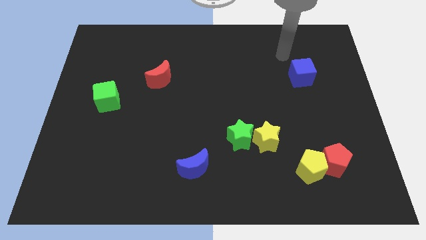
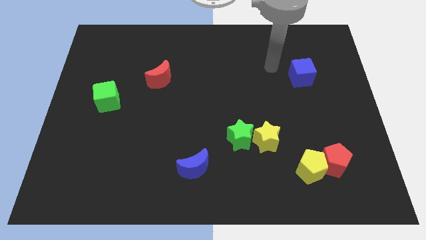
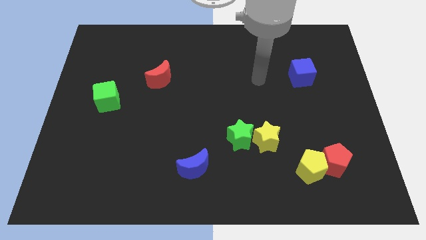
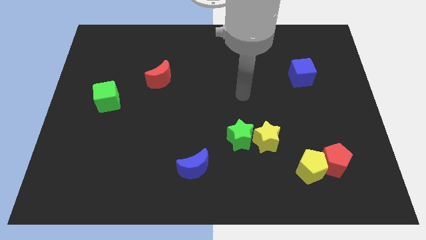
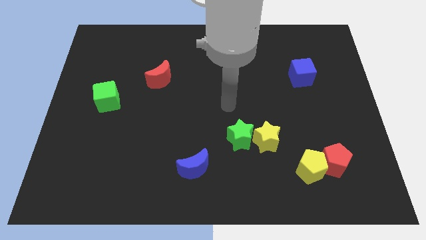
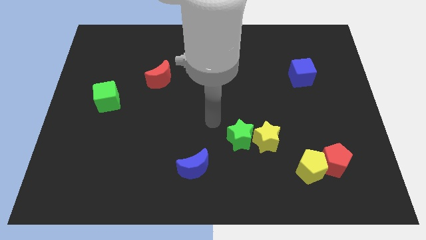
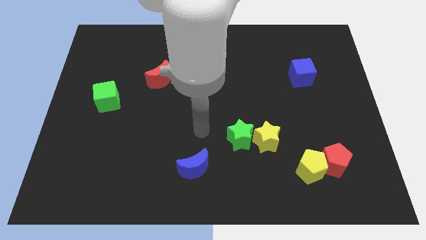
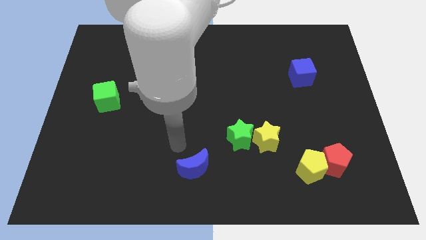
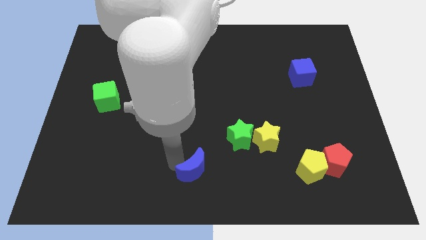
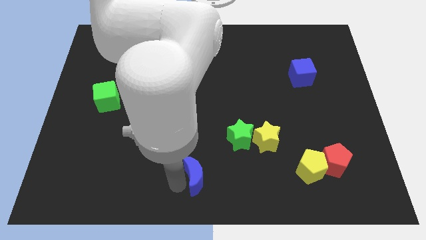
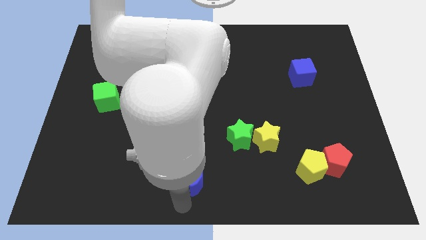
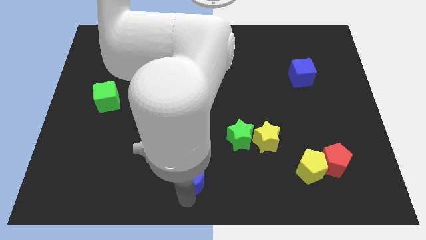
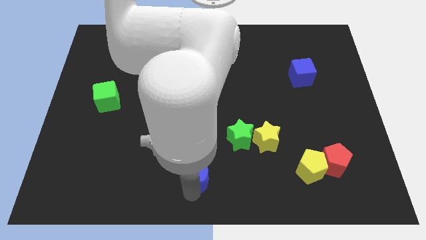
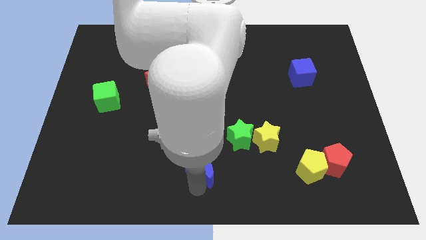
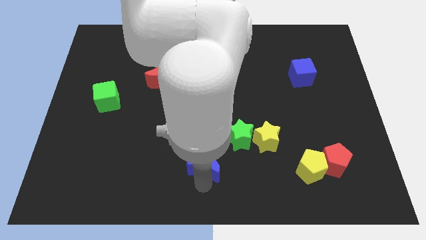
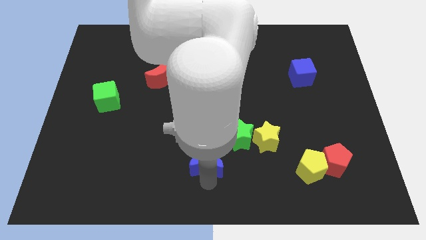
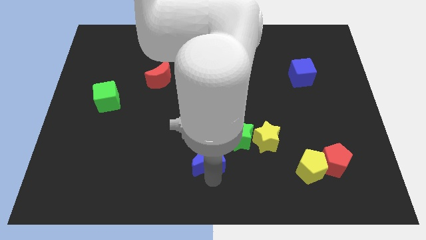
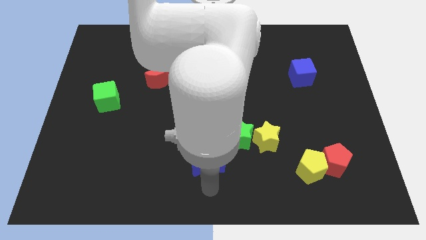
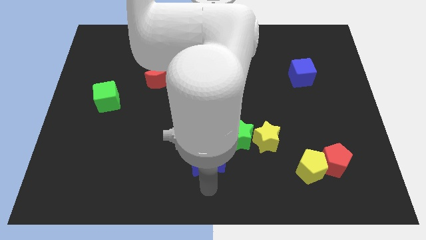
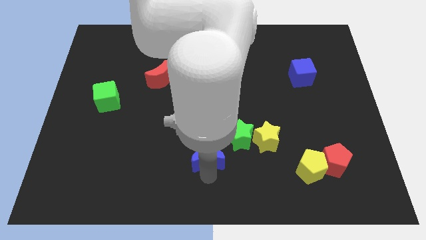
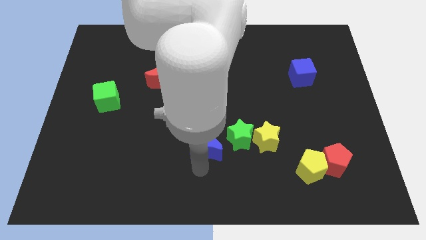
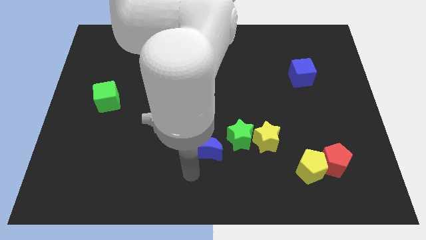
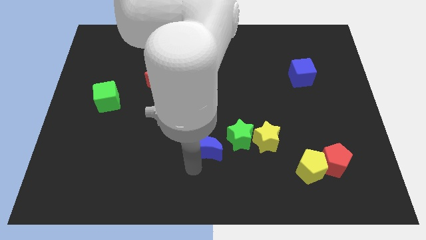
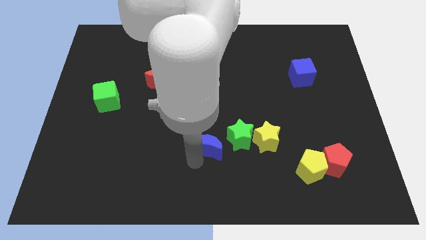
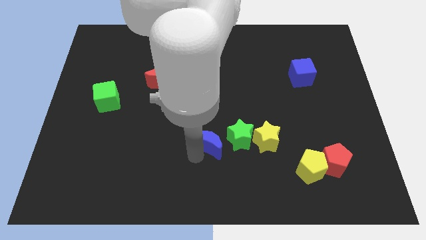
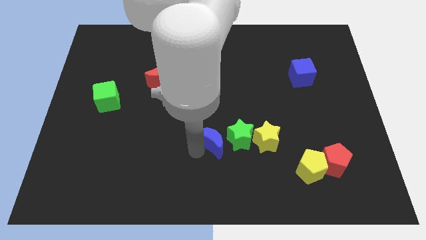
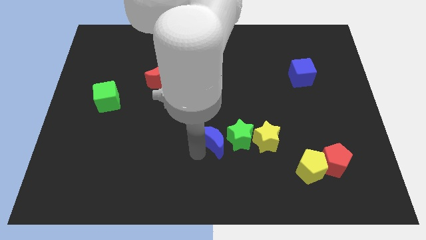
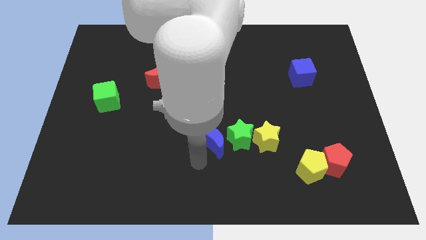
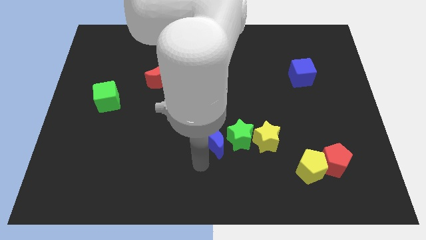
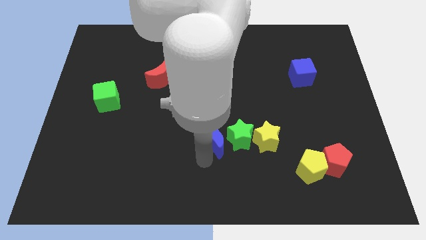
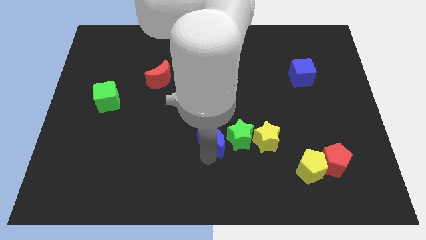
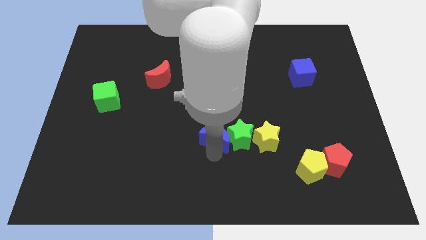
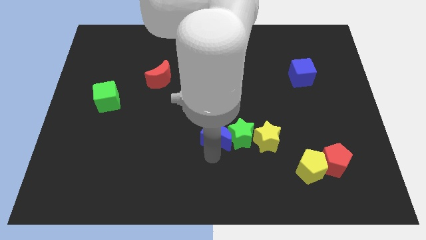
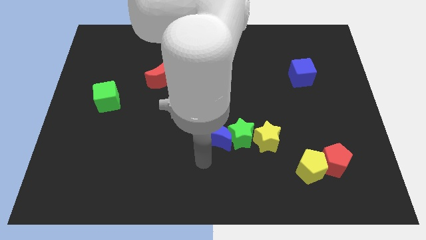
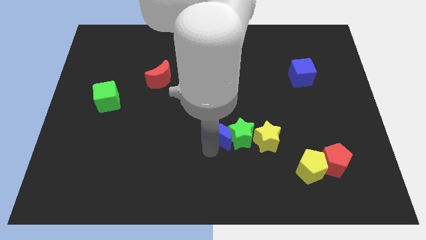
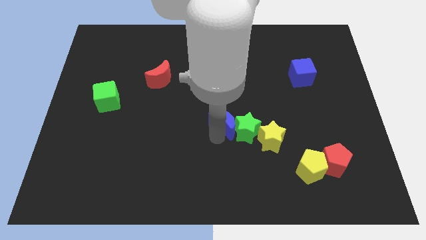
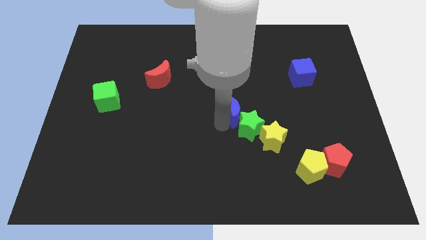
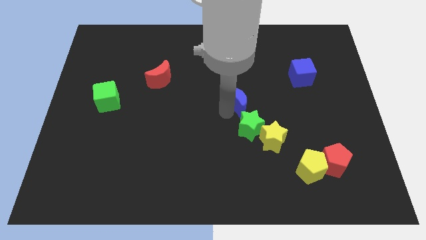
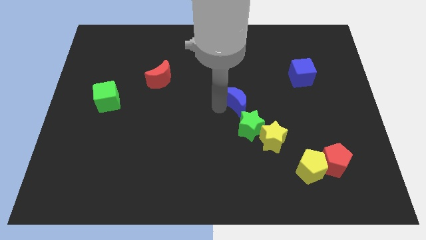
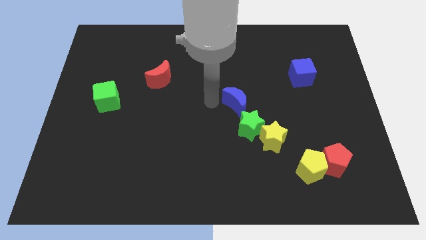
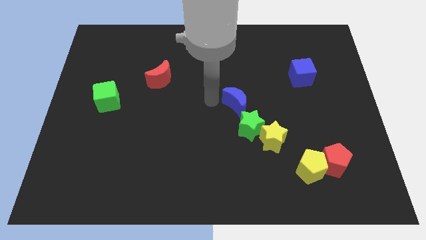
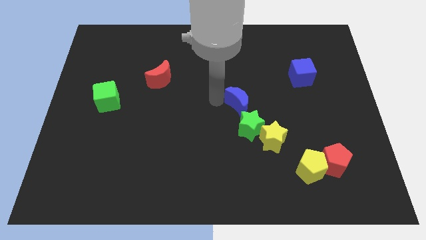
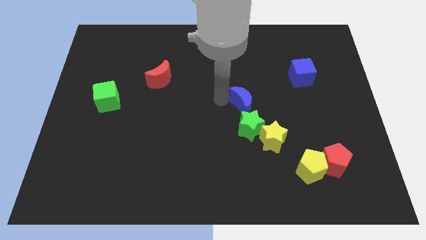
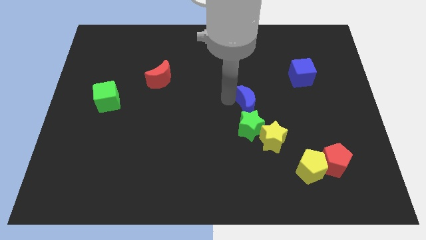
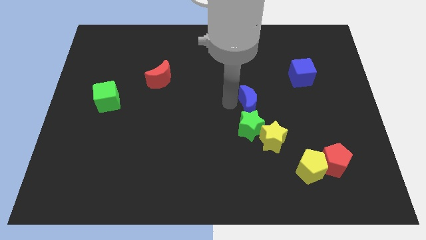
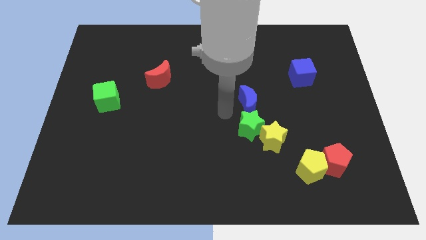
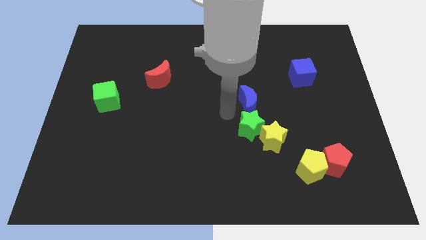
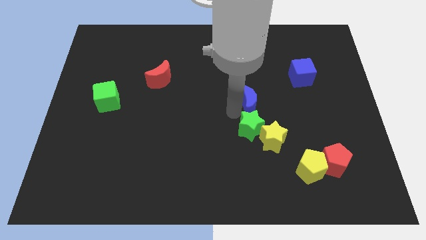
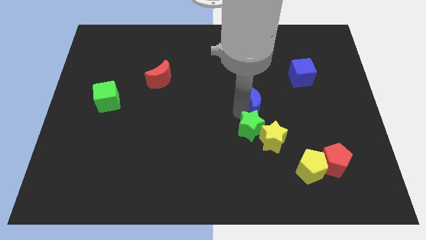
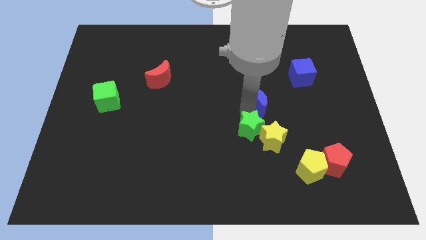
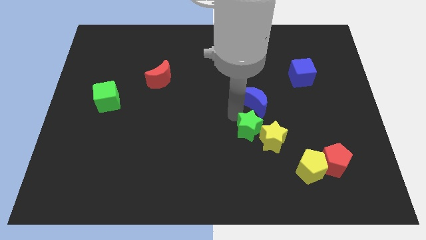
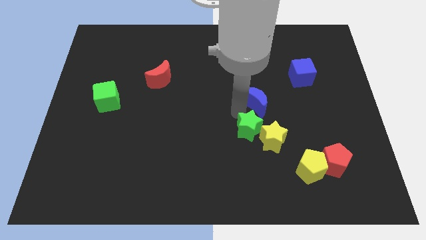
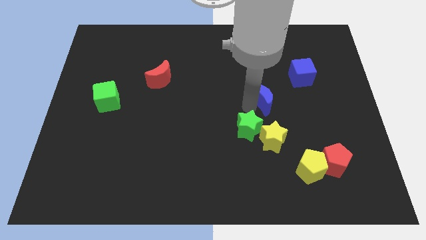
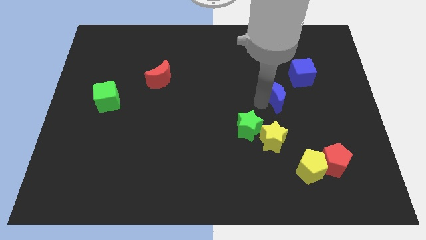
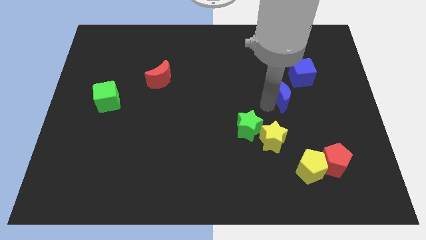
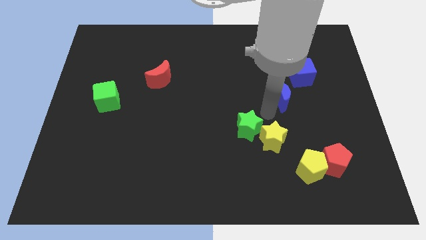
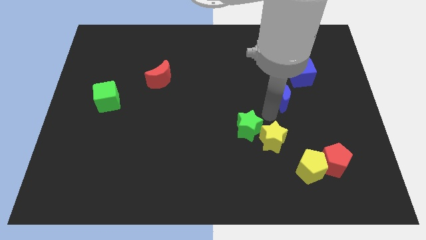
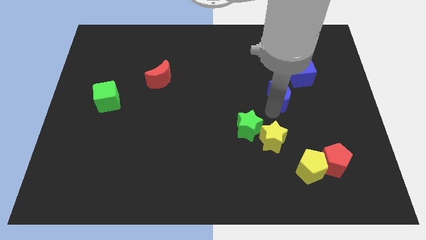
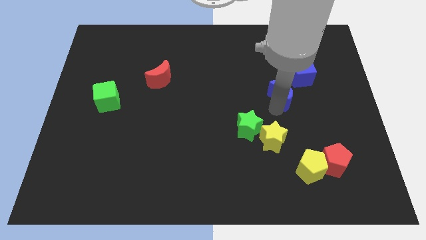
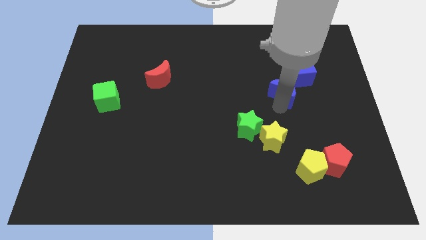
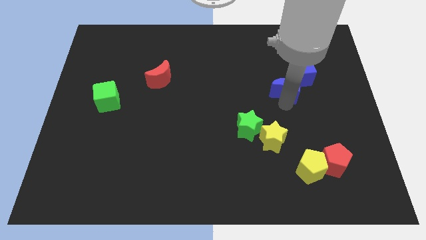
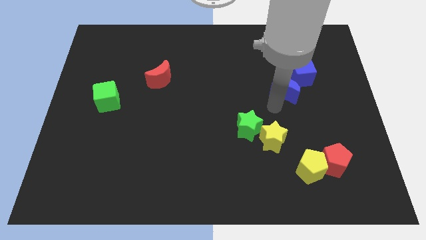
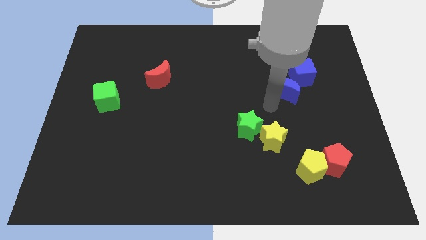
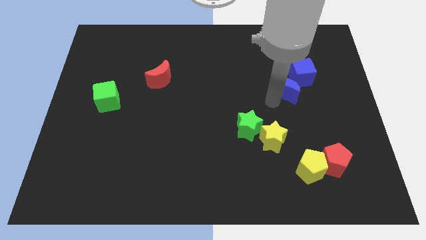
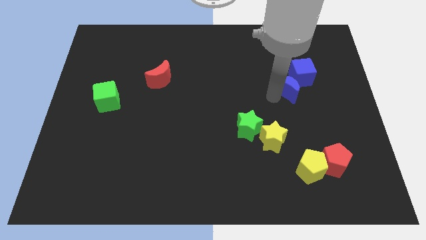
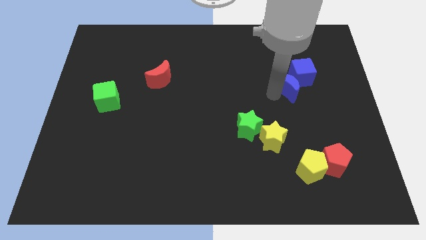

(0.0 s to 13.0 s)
put the blue moon to the blue cube

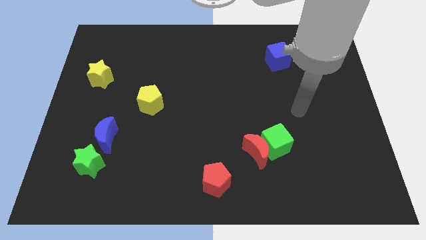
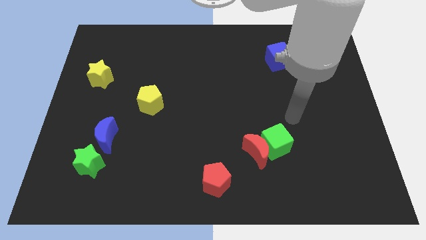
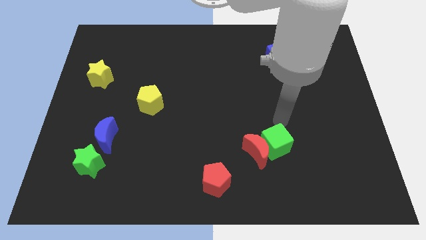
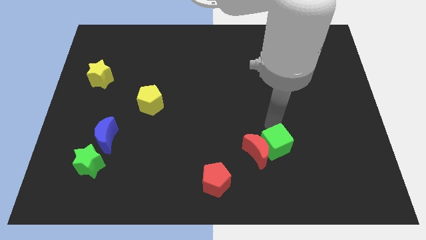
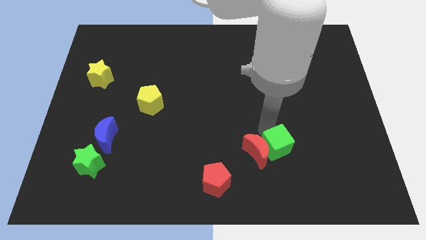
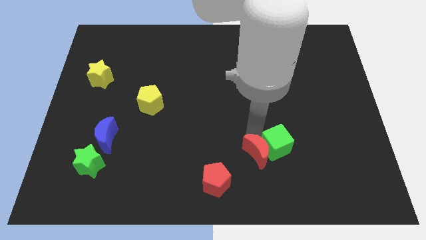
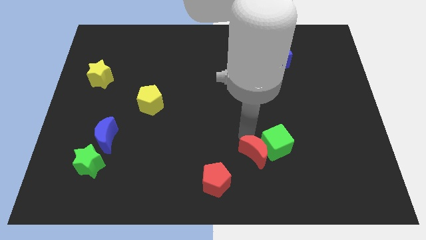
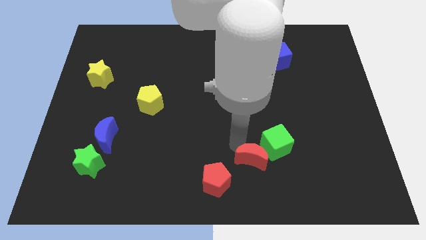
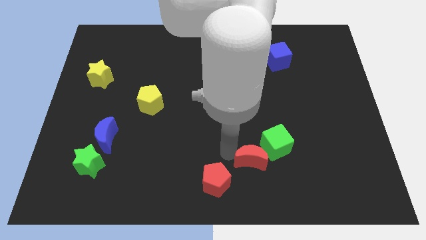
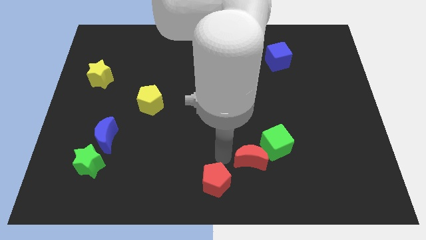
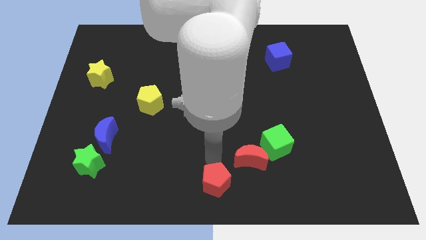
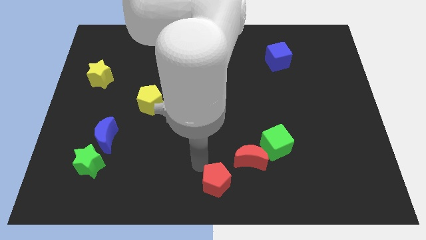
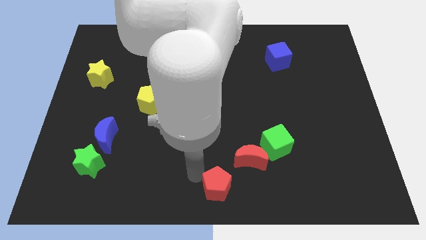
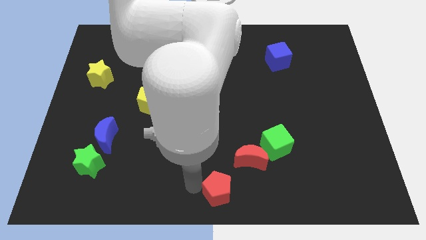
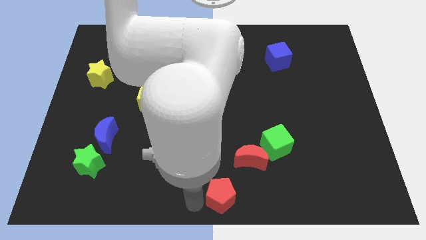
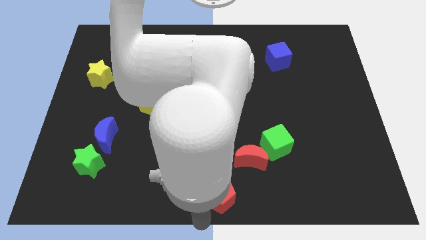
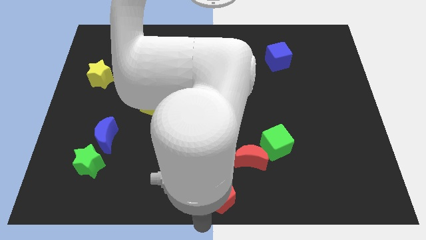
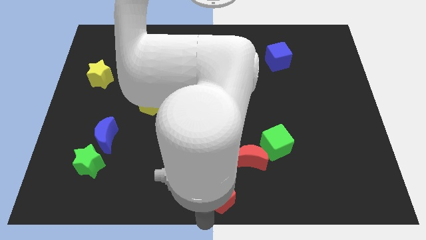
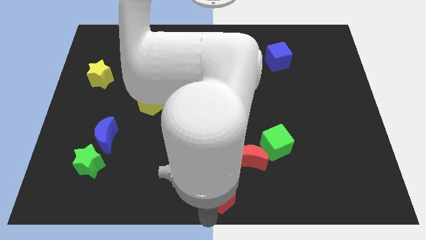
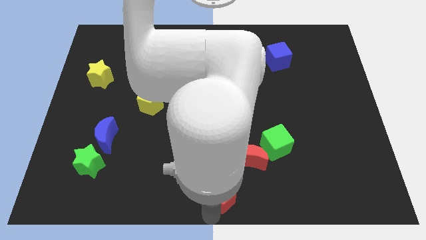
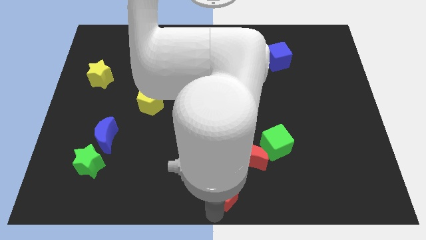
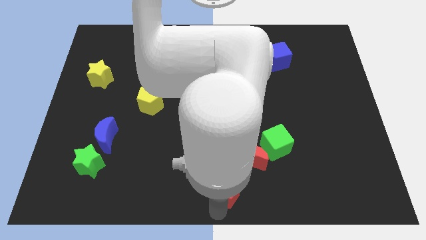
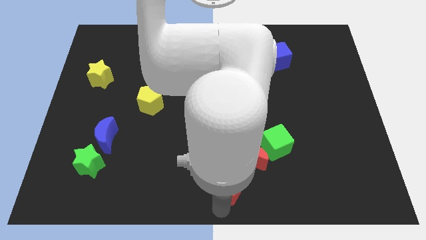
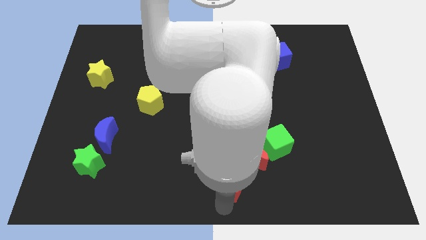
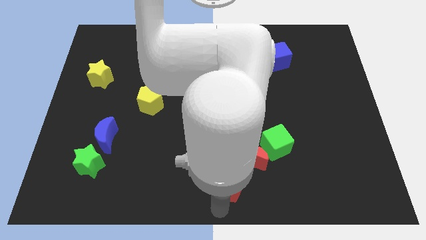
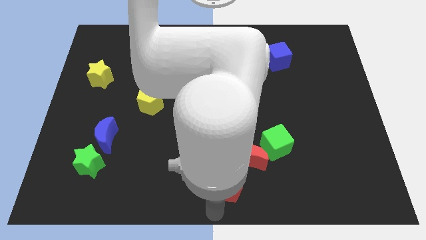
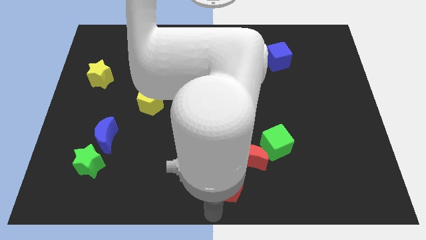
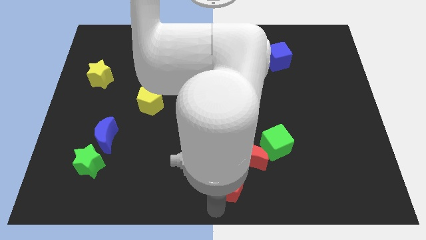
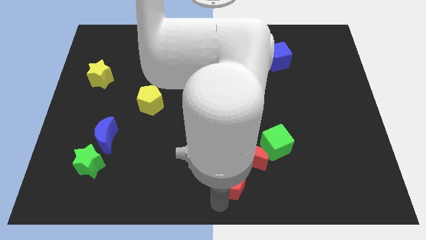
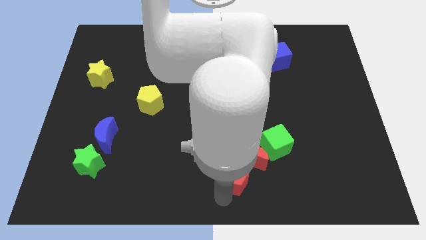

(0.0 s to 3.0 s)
push the red pentagon towards the red moon
